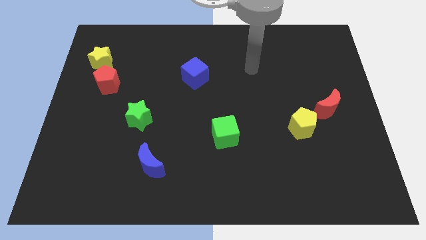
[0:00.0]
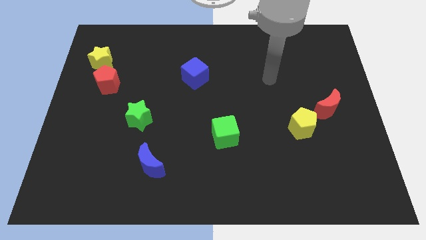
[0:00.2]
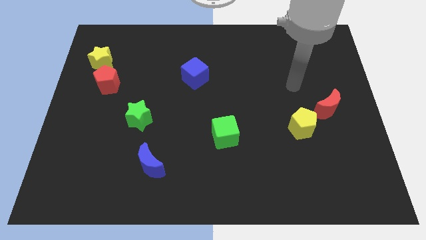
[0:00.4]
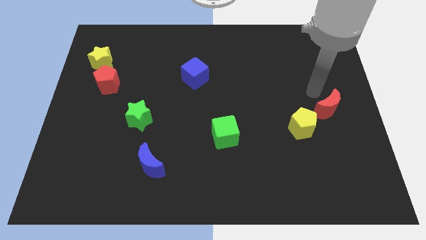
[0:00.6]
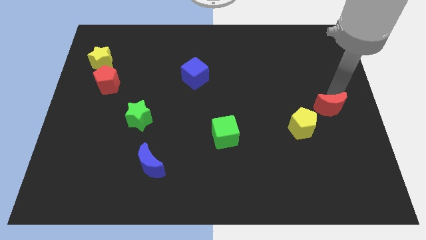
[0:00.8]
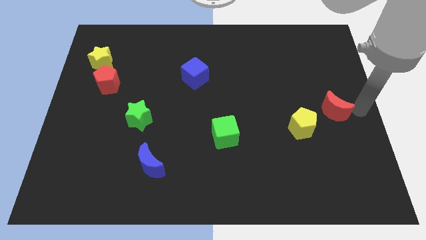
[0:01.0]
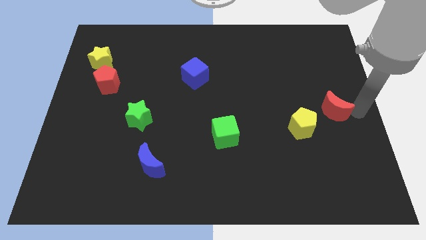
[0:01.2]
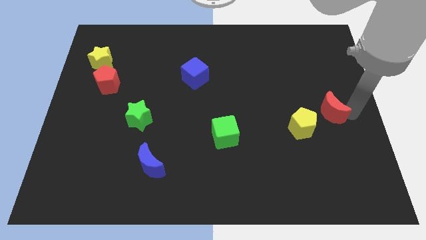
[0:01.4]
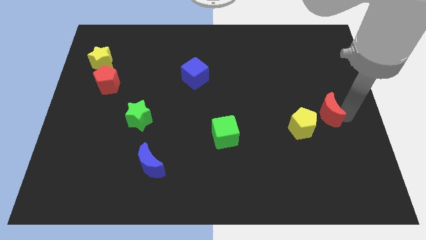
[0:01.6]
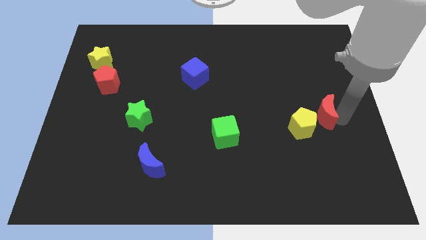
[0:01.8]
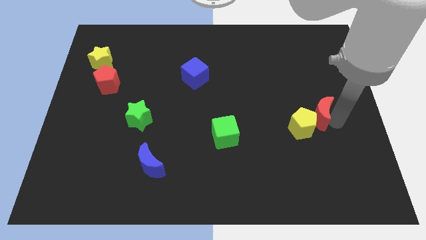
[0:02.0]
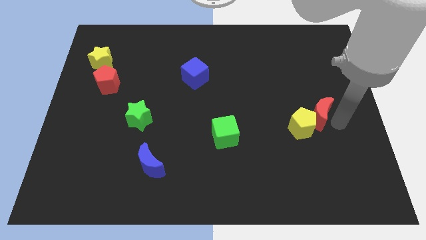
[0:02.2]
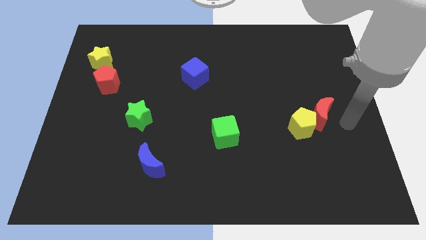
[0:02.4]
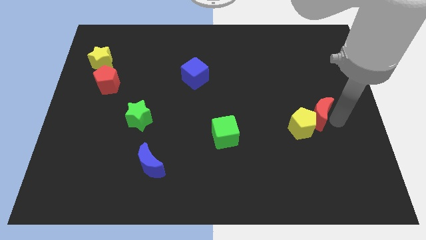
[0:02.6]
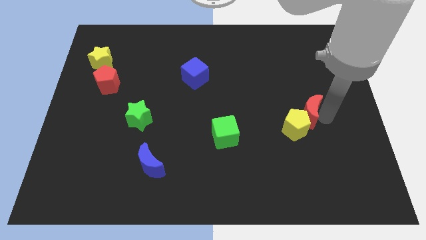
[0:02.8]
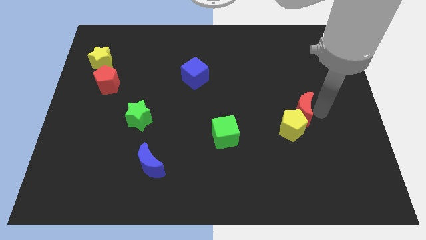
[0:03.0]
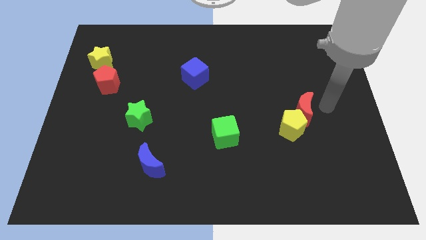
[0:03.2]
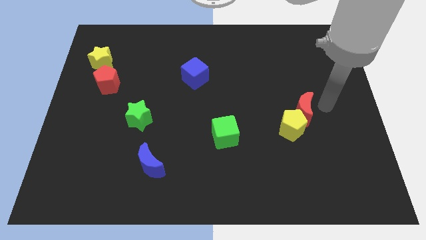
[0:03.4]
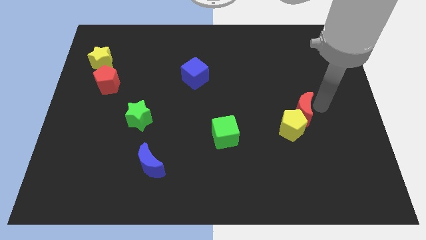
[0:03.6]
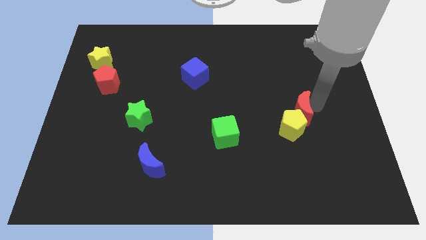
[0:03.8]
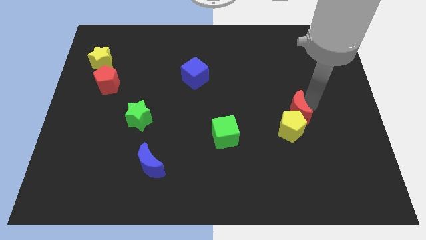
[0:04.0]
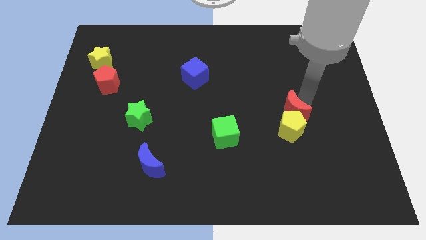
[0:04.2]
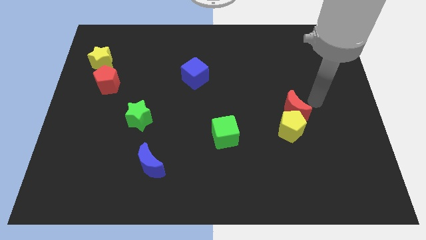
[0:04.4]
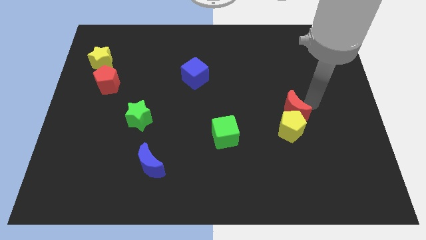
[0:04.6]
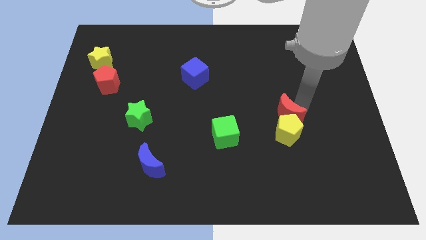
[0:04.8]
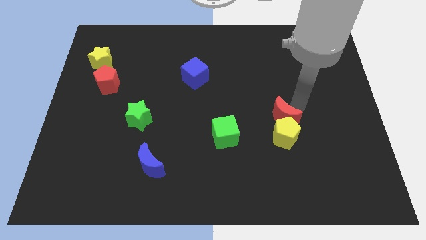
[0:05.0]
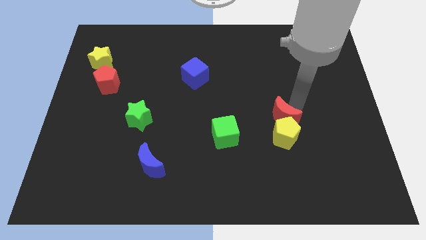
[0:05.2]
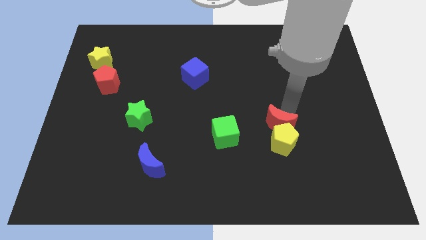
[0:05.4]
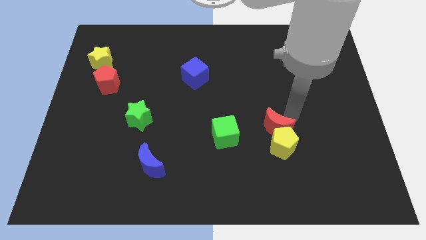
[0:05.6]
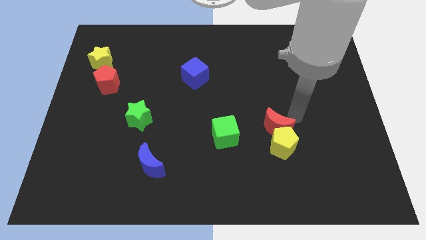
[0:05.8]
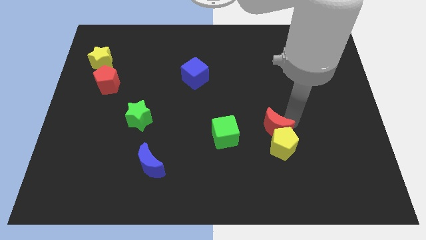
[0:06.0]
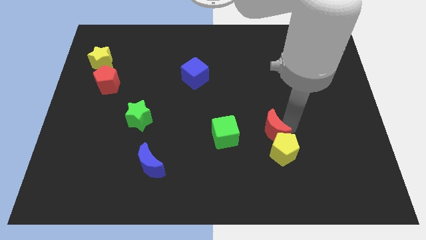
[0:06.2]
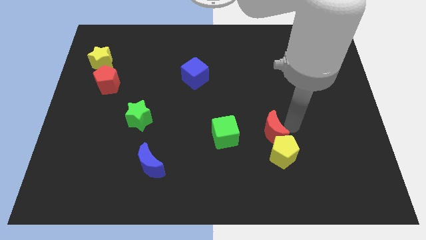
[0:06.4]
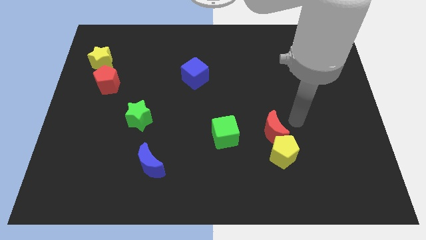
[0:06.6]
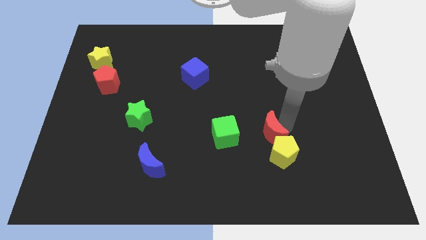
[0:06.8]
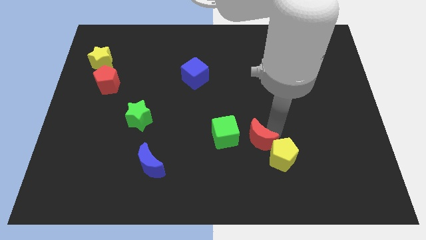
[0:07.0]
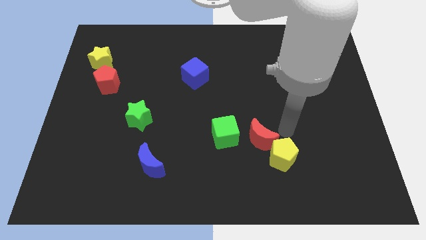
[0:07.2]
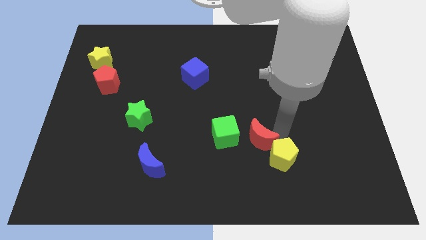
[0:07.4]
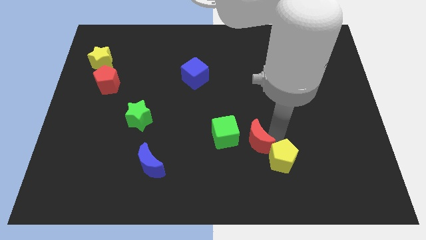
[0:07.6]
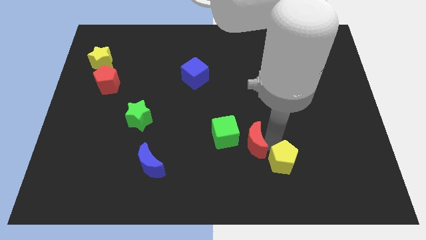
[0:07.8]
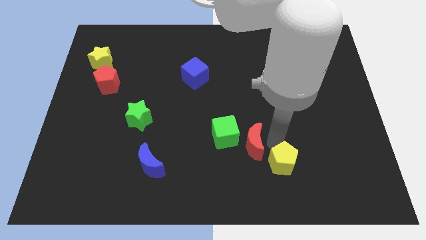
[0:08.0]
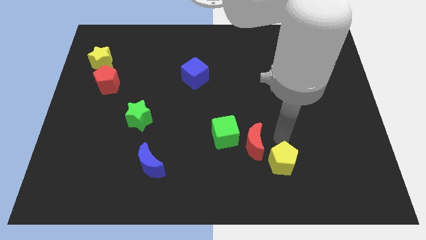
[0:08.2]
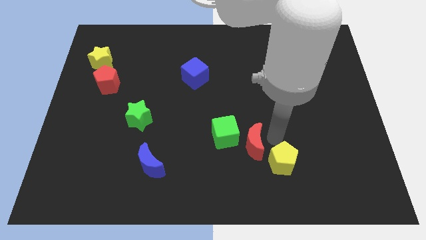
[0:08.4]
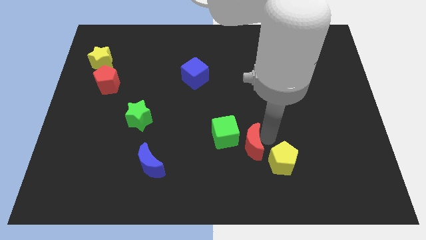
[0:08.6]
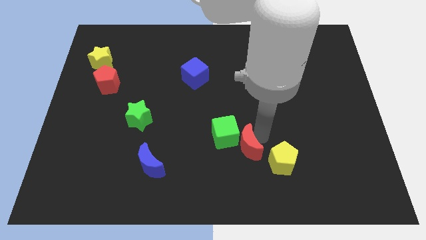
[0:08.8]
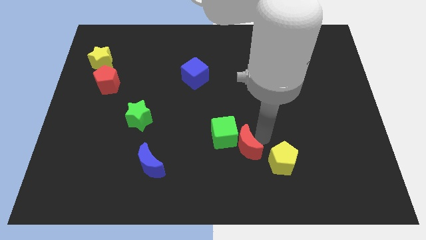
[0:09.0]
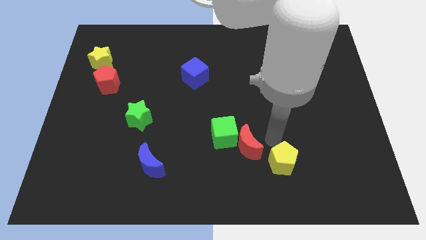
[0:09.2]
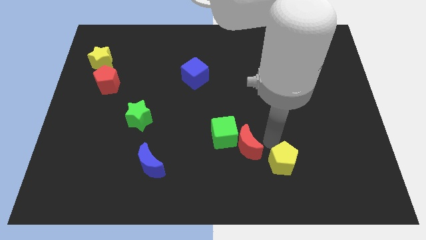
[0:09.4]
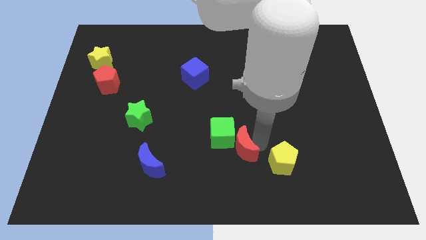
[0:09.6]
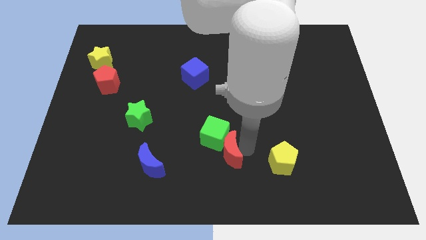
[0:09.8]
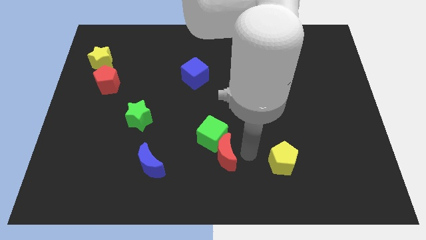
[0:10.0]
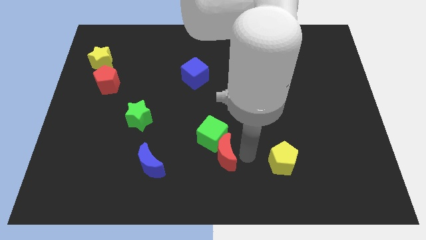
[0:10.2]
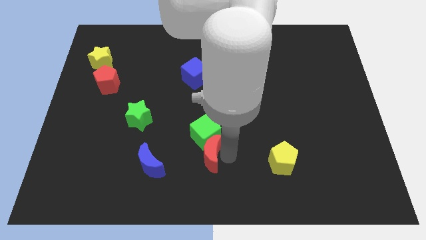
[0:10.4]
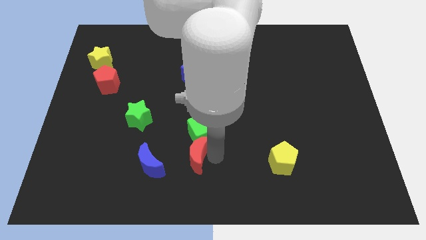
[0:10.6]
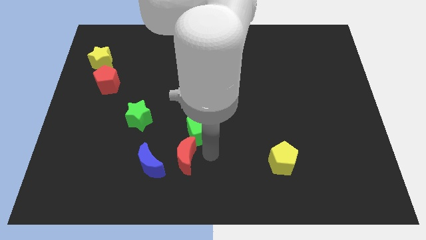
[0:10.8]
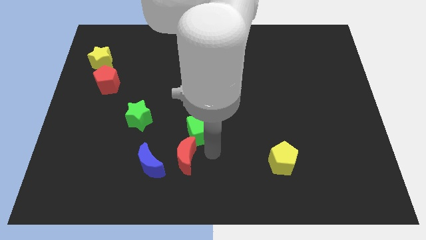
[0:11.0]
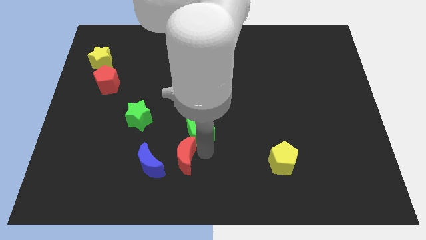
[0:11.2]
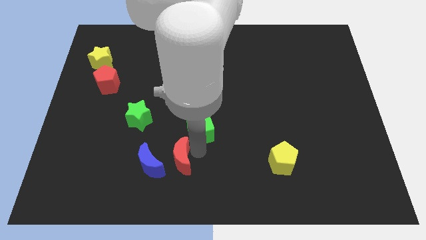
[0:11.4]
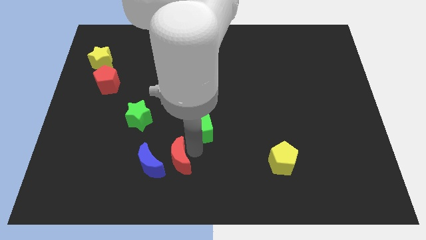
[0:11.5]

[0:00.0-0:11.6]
push the red moon next to the blue moon
